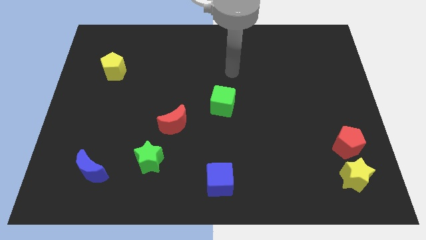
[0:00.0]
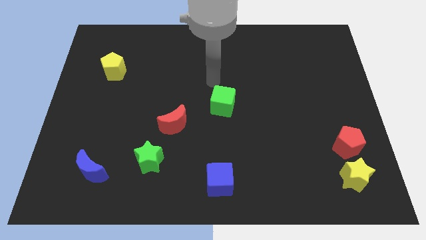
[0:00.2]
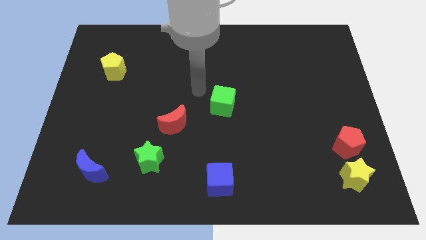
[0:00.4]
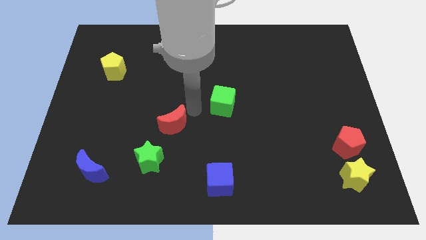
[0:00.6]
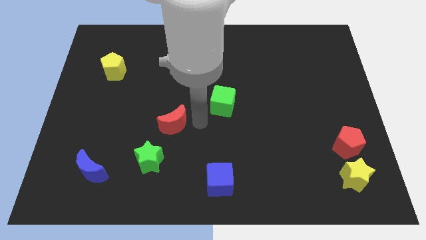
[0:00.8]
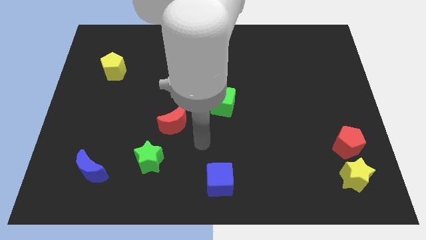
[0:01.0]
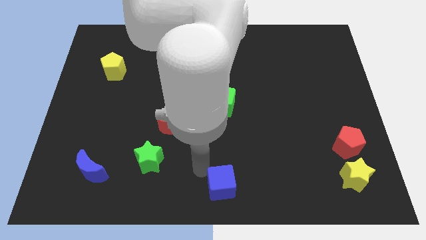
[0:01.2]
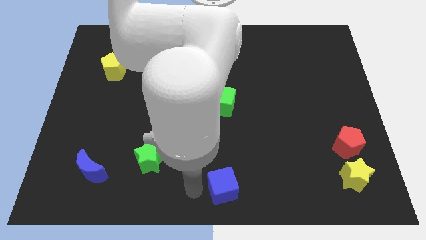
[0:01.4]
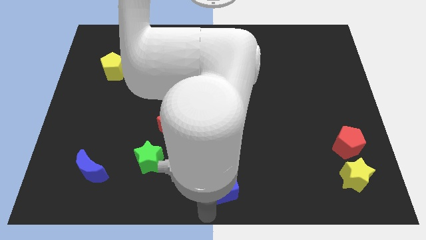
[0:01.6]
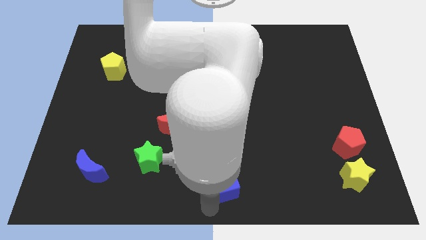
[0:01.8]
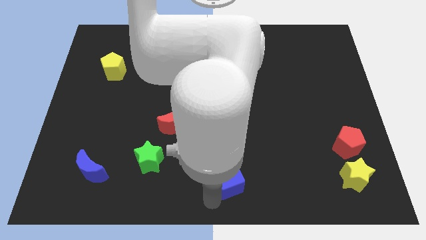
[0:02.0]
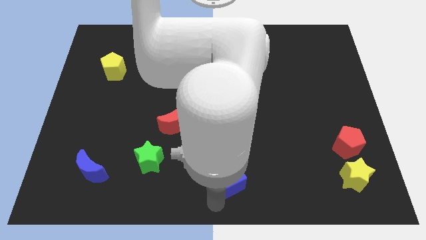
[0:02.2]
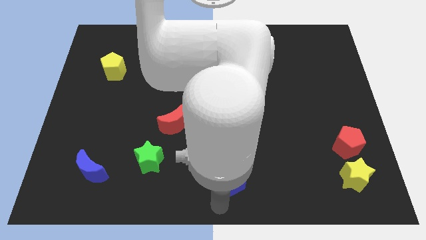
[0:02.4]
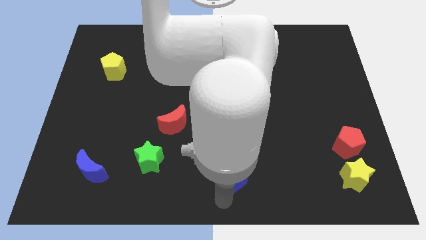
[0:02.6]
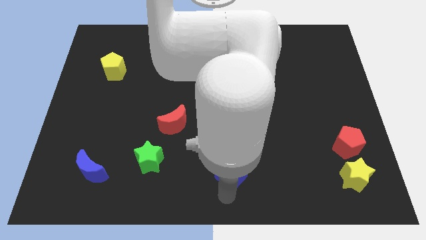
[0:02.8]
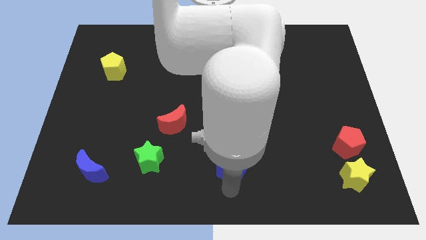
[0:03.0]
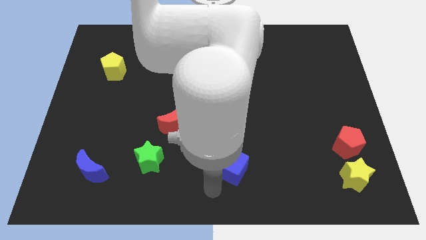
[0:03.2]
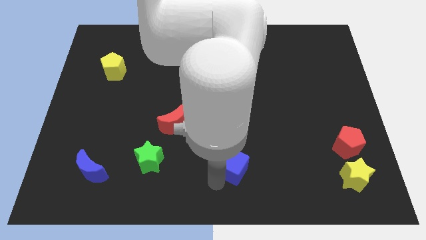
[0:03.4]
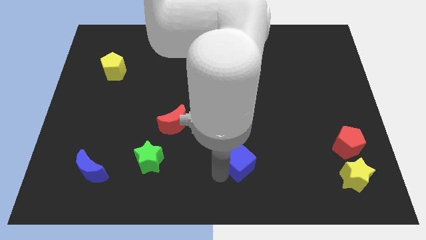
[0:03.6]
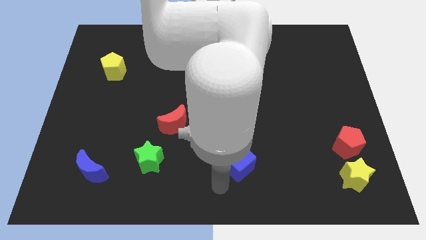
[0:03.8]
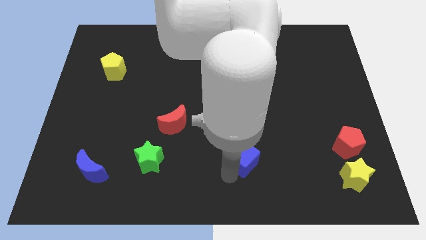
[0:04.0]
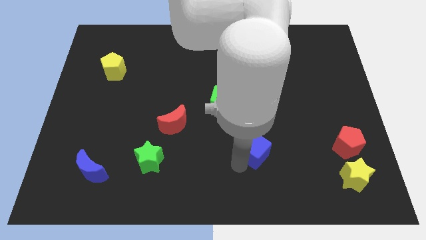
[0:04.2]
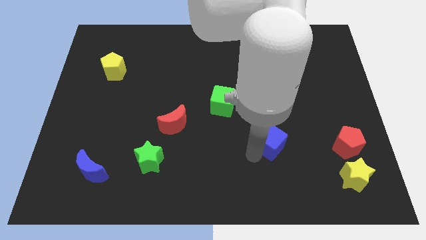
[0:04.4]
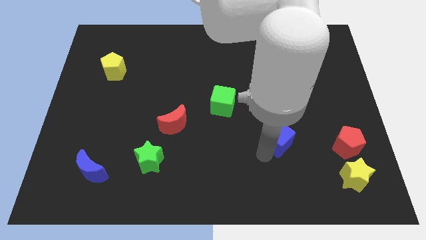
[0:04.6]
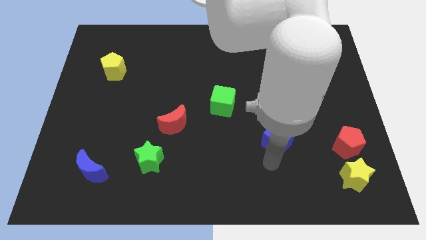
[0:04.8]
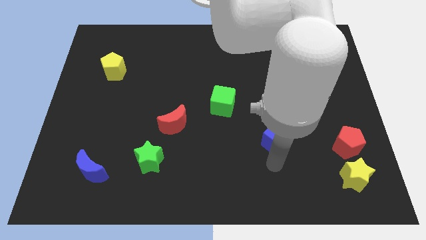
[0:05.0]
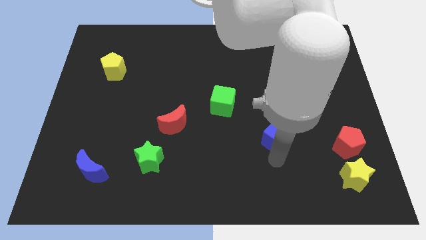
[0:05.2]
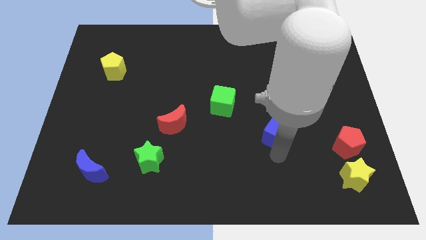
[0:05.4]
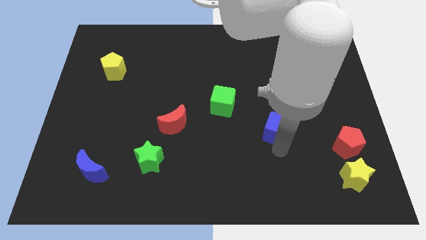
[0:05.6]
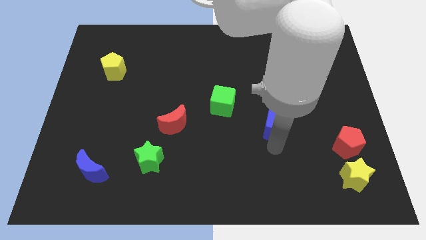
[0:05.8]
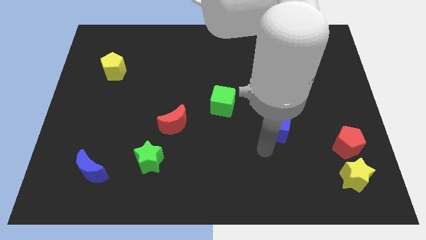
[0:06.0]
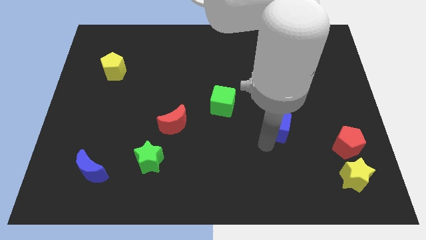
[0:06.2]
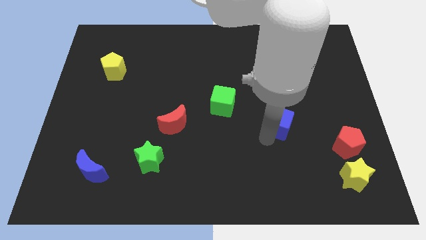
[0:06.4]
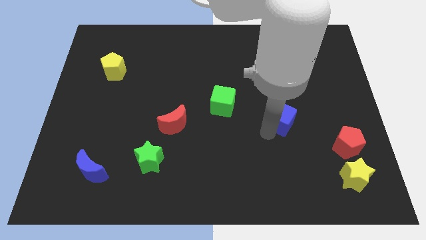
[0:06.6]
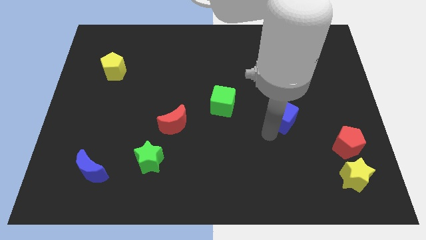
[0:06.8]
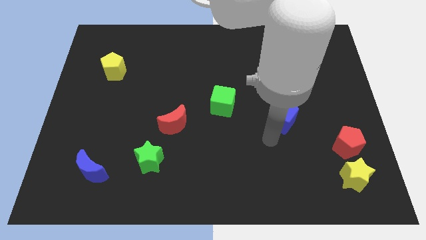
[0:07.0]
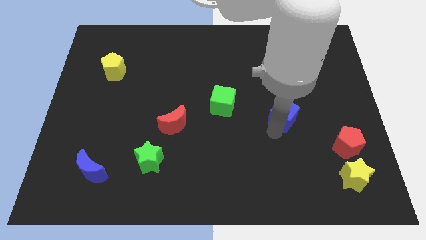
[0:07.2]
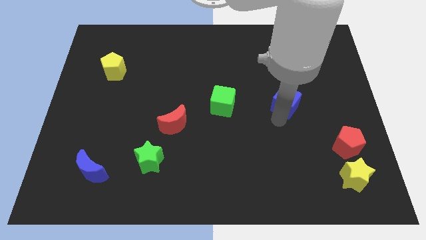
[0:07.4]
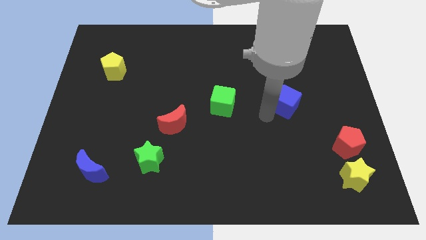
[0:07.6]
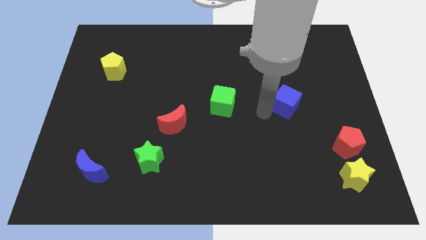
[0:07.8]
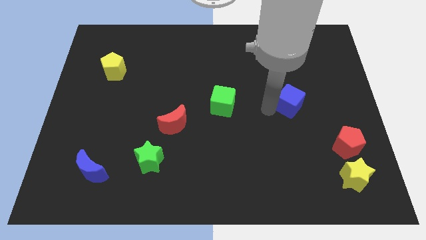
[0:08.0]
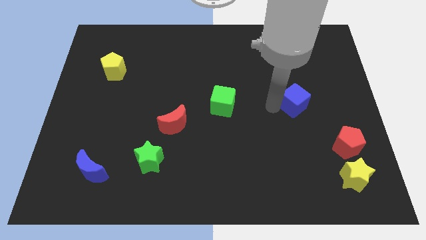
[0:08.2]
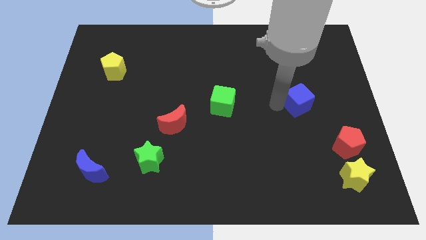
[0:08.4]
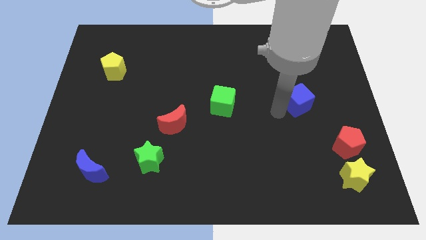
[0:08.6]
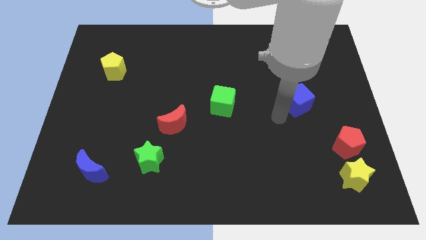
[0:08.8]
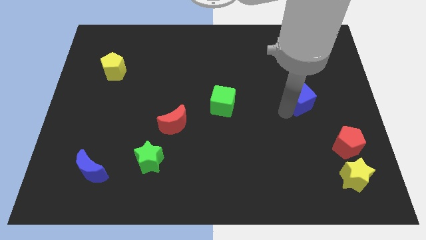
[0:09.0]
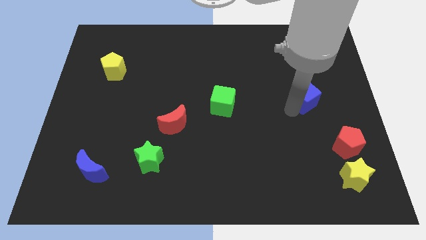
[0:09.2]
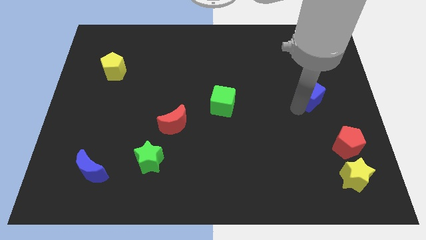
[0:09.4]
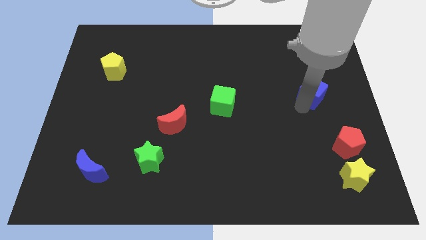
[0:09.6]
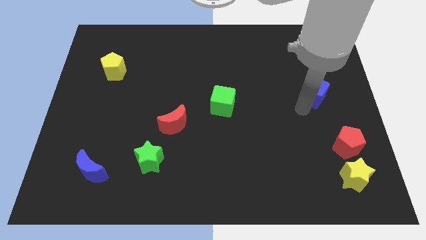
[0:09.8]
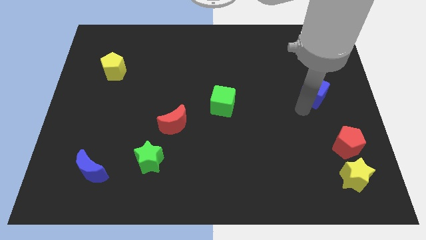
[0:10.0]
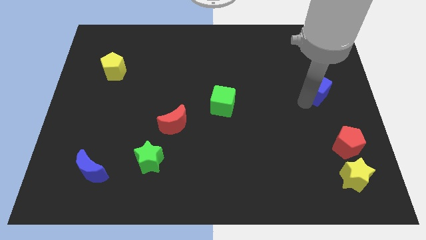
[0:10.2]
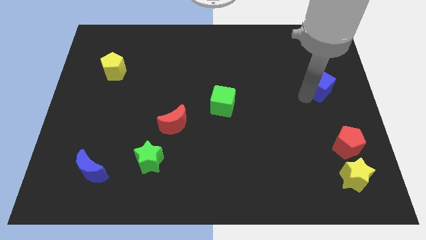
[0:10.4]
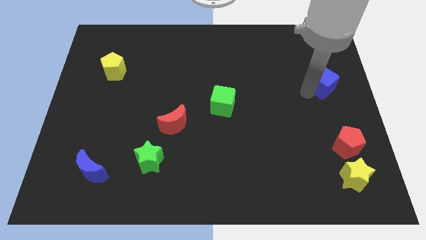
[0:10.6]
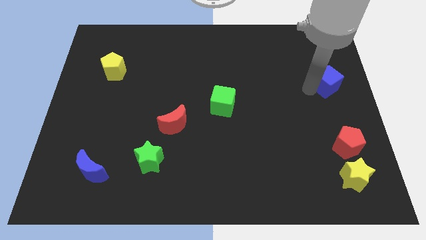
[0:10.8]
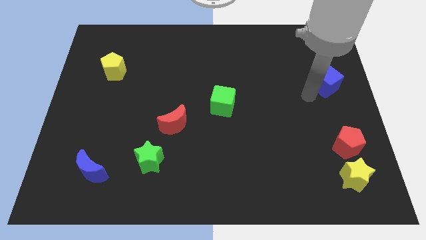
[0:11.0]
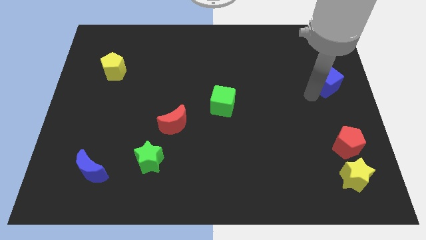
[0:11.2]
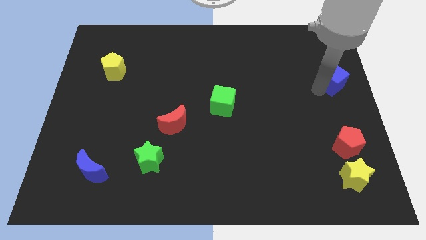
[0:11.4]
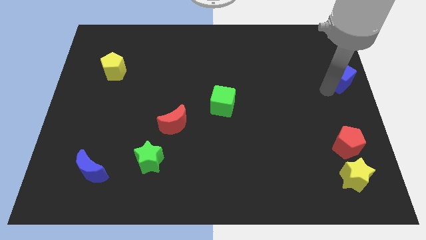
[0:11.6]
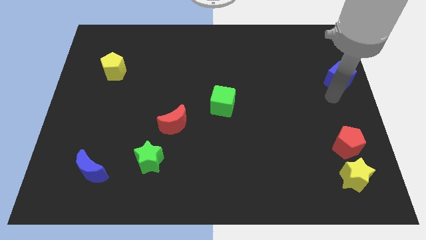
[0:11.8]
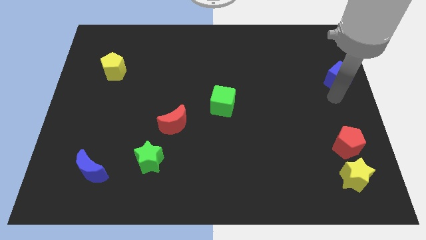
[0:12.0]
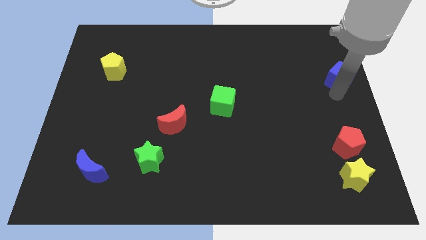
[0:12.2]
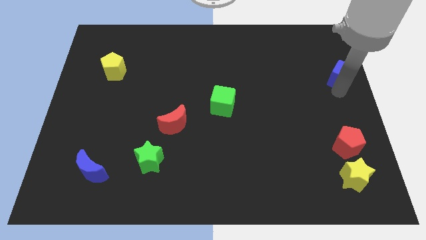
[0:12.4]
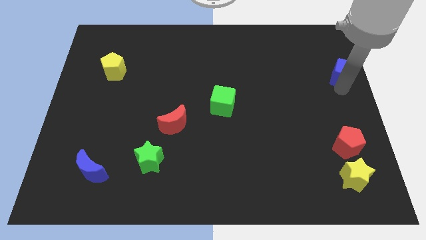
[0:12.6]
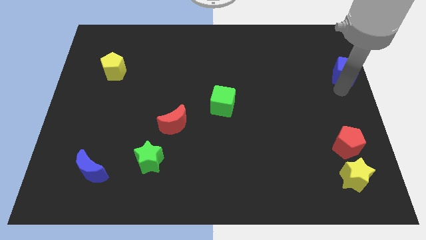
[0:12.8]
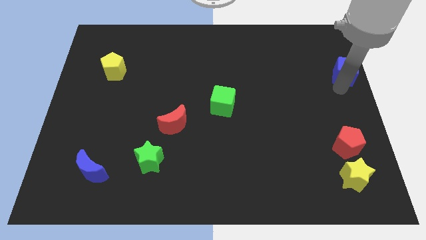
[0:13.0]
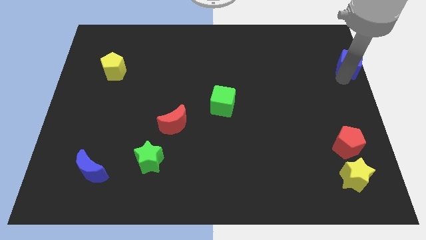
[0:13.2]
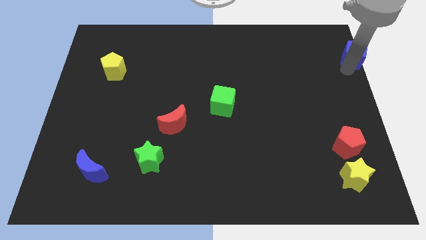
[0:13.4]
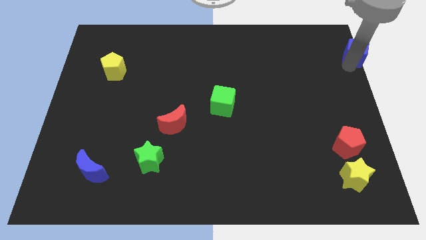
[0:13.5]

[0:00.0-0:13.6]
slide the blue cube to the top right corner
